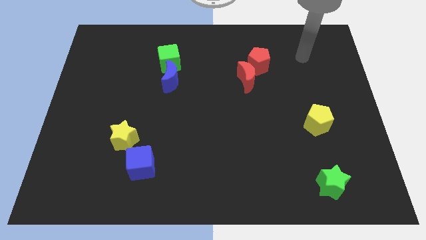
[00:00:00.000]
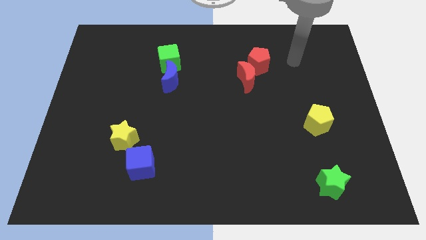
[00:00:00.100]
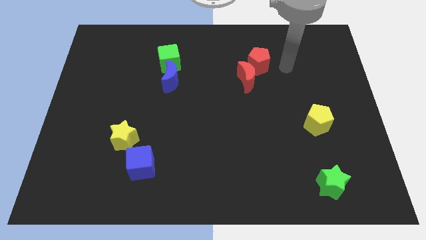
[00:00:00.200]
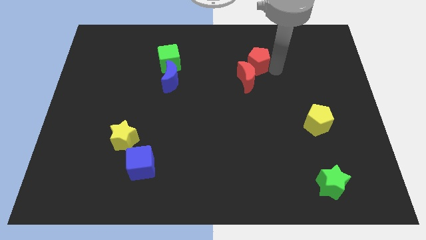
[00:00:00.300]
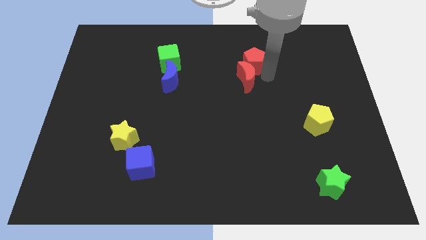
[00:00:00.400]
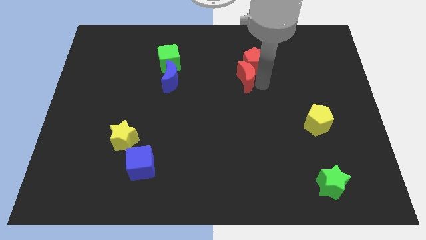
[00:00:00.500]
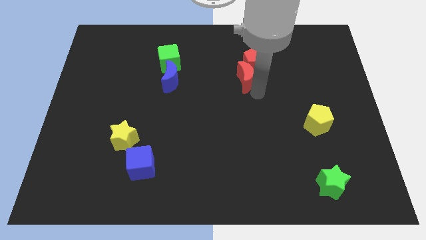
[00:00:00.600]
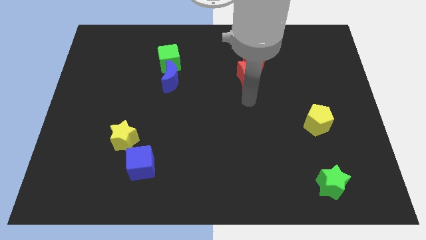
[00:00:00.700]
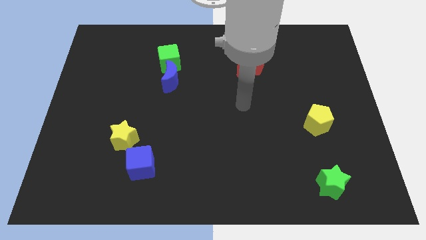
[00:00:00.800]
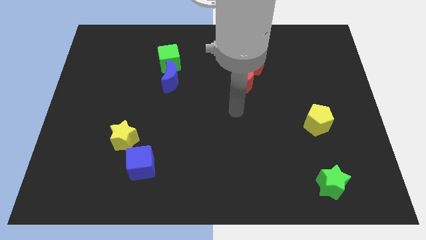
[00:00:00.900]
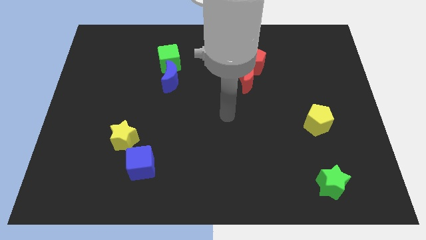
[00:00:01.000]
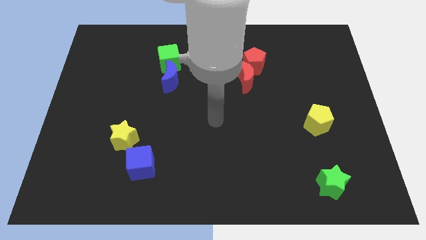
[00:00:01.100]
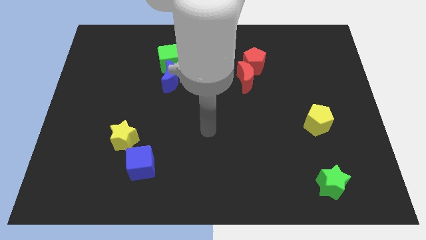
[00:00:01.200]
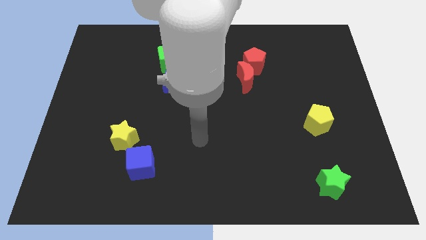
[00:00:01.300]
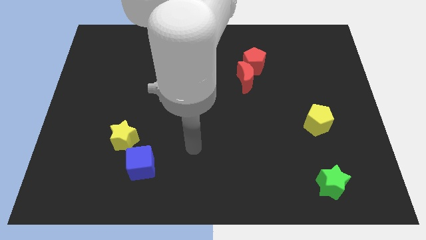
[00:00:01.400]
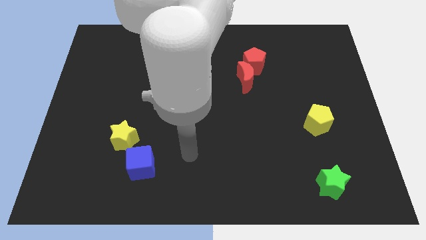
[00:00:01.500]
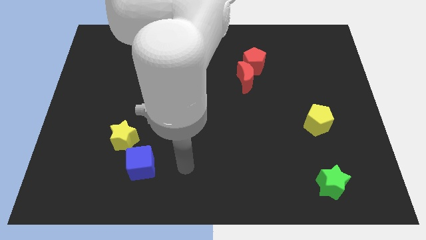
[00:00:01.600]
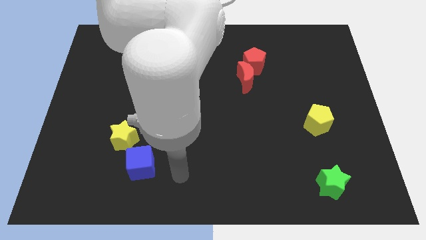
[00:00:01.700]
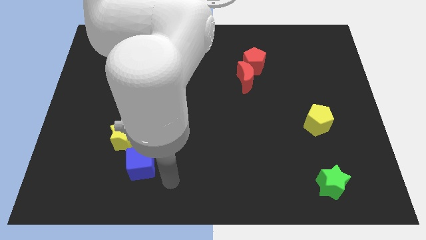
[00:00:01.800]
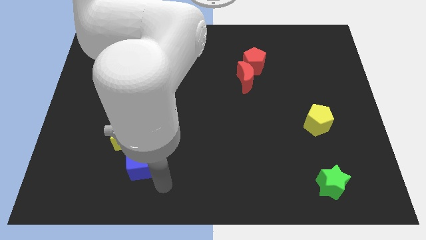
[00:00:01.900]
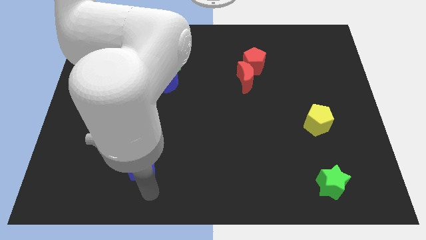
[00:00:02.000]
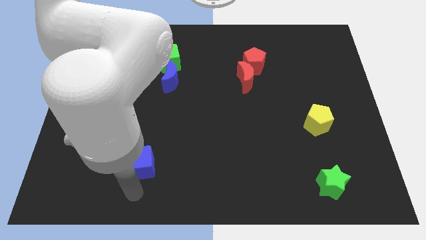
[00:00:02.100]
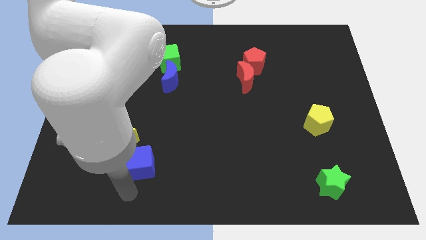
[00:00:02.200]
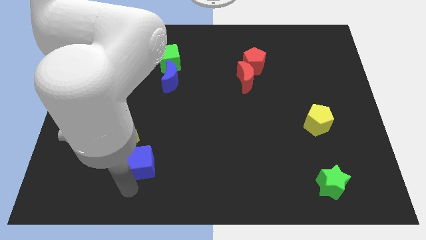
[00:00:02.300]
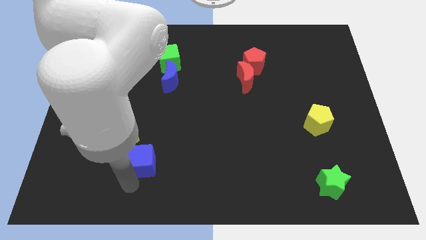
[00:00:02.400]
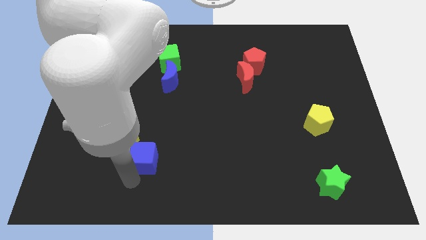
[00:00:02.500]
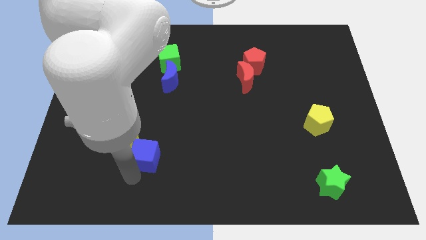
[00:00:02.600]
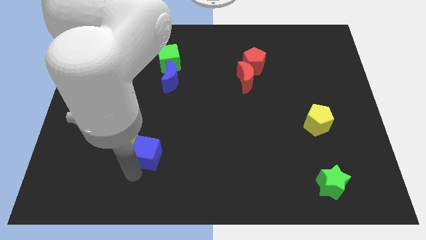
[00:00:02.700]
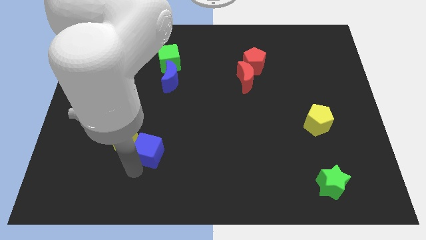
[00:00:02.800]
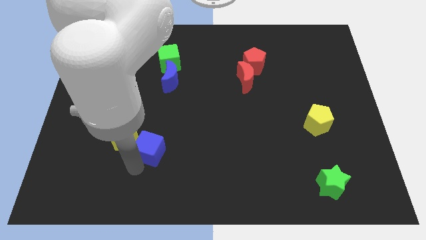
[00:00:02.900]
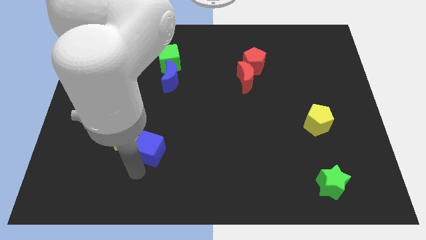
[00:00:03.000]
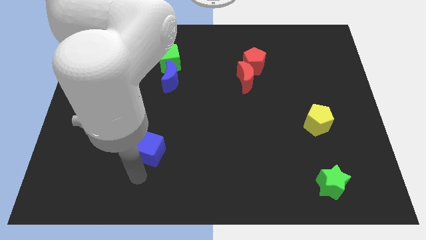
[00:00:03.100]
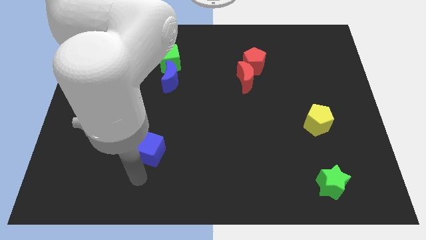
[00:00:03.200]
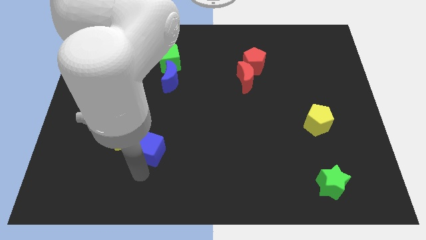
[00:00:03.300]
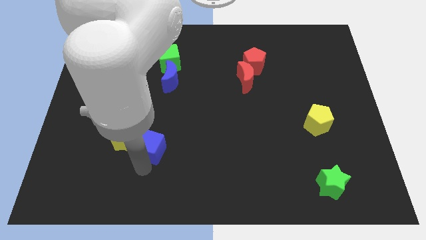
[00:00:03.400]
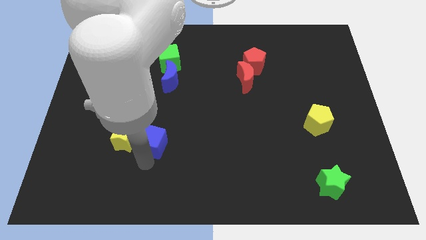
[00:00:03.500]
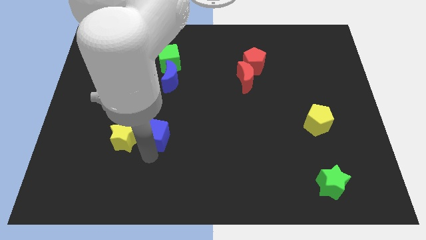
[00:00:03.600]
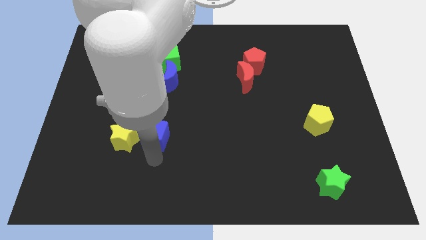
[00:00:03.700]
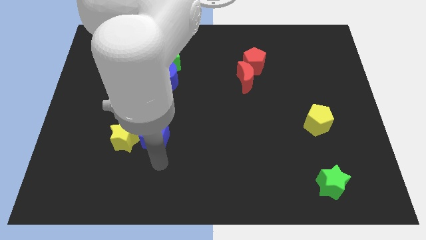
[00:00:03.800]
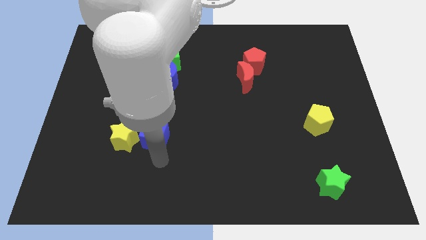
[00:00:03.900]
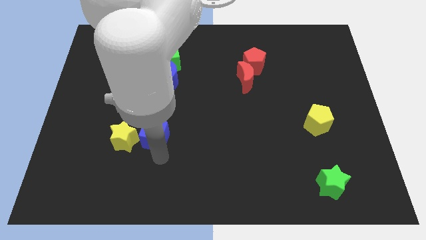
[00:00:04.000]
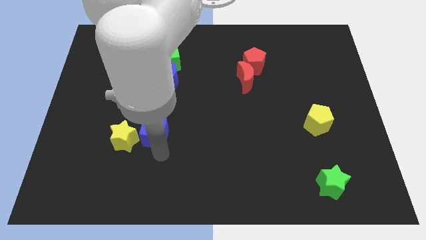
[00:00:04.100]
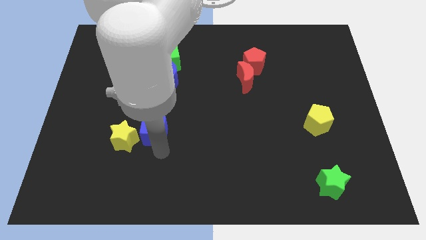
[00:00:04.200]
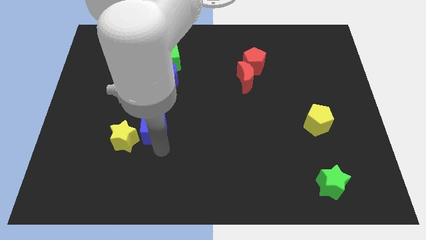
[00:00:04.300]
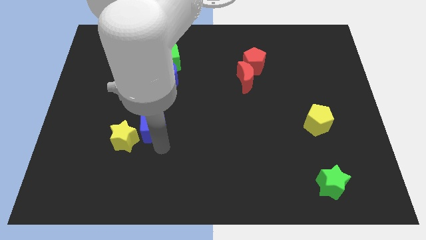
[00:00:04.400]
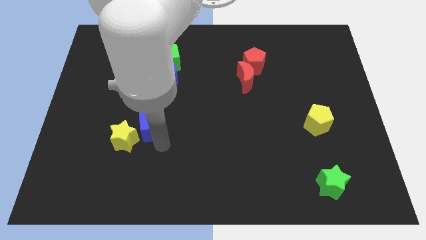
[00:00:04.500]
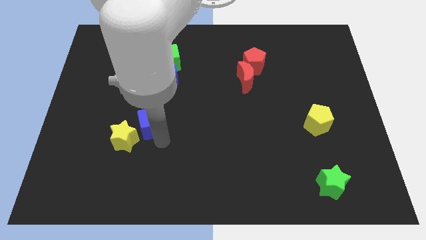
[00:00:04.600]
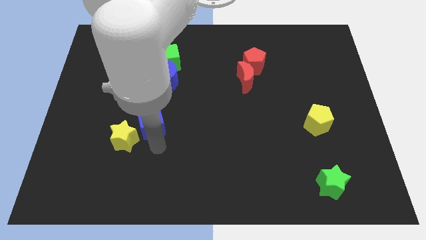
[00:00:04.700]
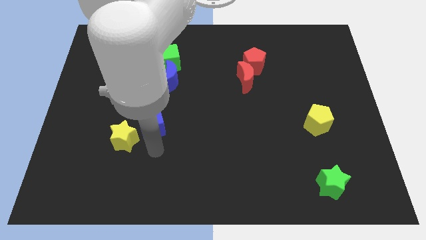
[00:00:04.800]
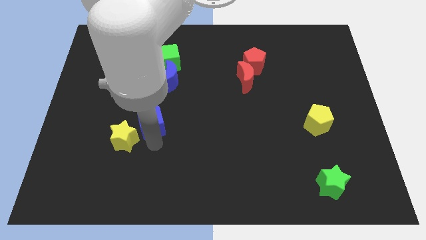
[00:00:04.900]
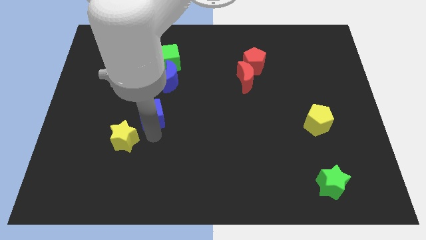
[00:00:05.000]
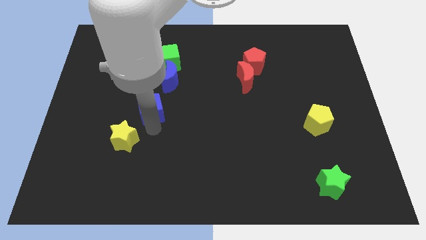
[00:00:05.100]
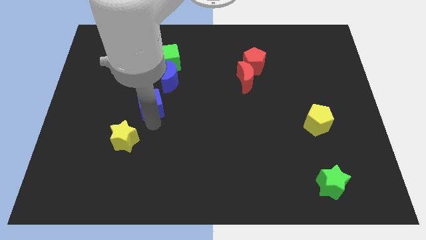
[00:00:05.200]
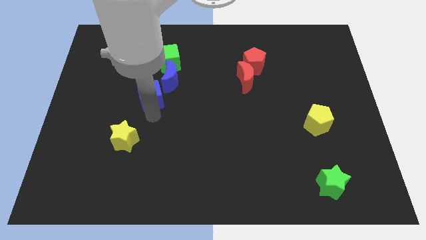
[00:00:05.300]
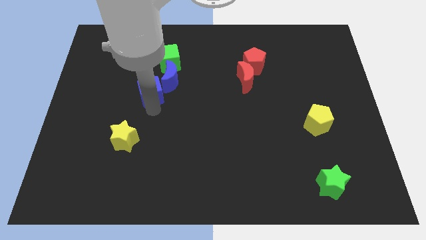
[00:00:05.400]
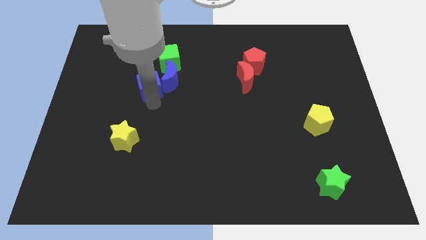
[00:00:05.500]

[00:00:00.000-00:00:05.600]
push the blue cube up

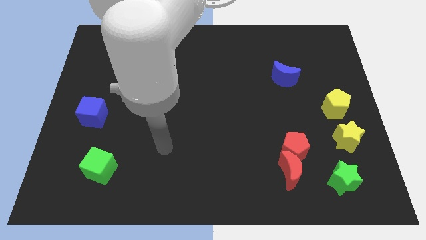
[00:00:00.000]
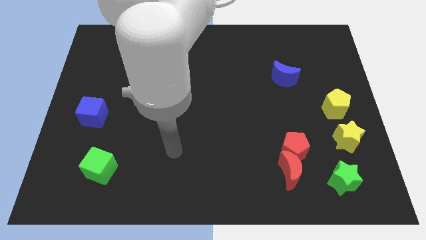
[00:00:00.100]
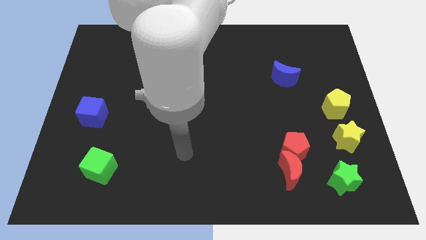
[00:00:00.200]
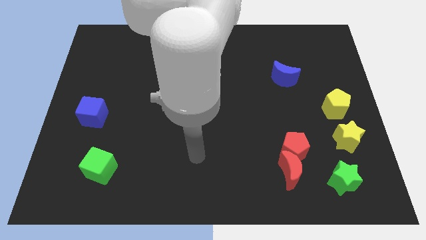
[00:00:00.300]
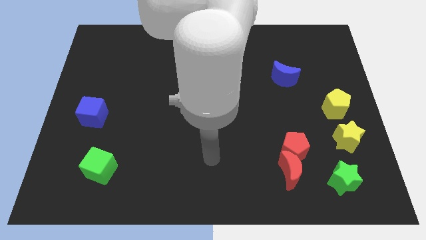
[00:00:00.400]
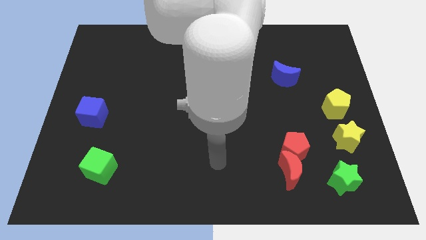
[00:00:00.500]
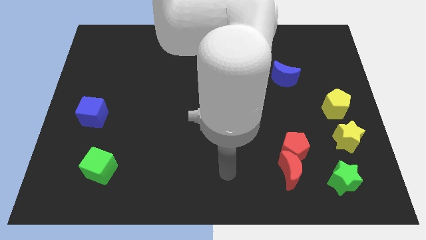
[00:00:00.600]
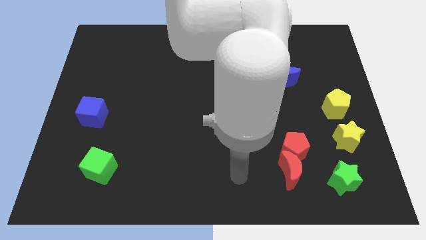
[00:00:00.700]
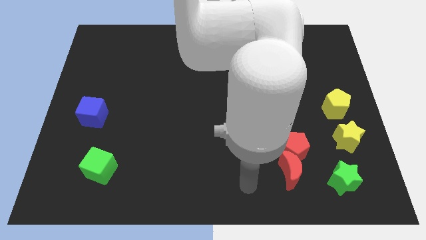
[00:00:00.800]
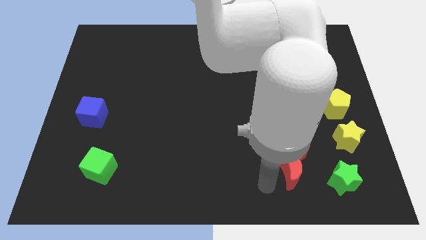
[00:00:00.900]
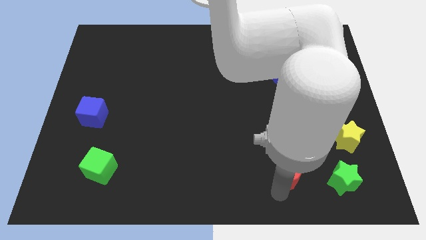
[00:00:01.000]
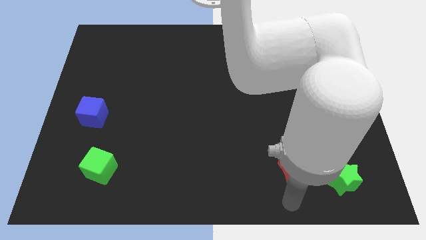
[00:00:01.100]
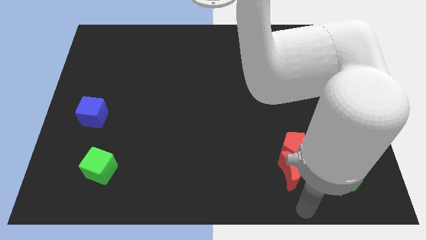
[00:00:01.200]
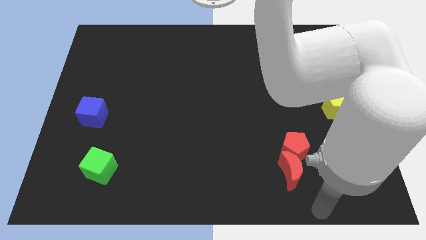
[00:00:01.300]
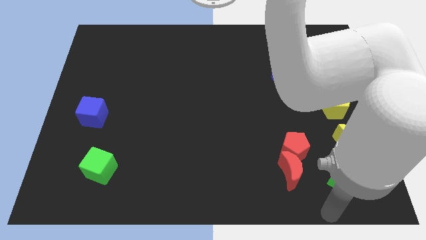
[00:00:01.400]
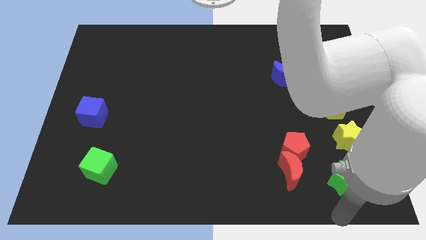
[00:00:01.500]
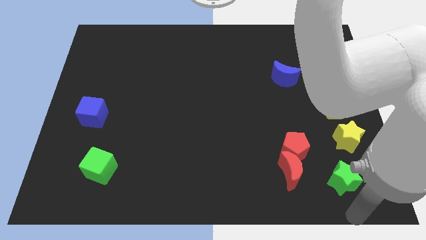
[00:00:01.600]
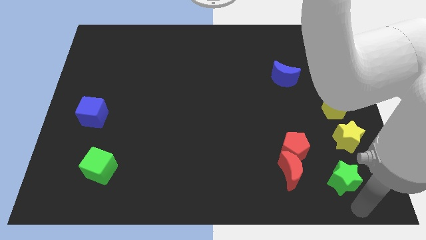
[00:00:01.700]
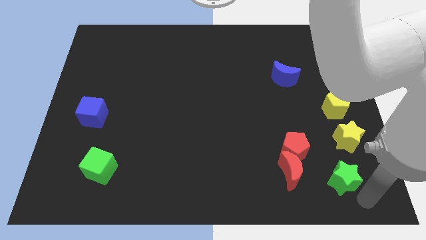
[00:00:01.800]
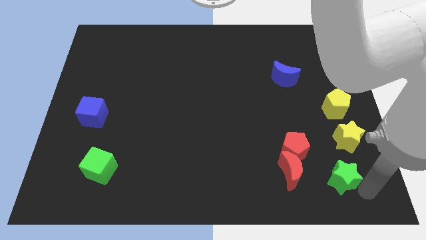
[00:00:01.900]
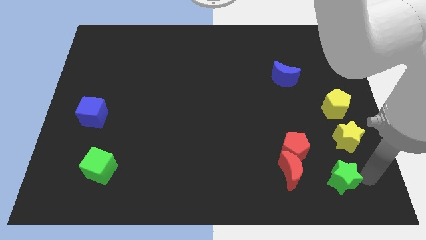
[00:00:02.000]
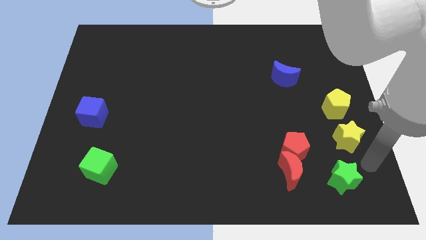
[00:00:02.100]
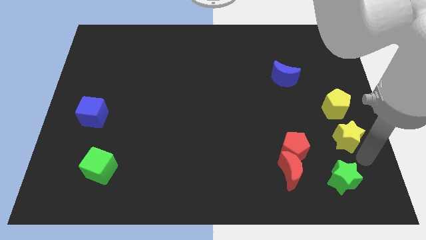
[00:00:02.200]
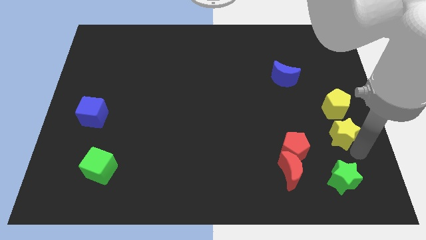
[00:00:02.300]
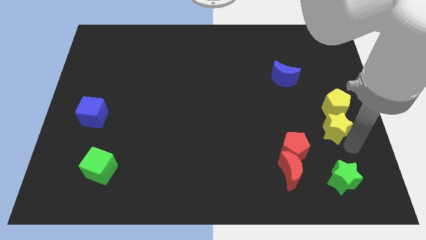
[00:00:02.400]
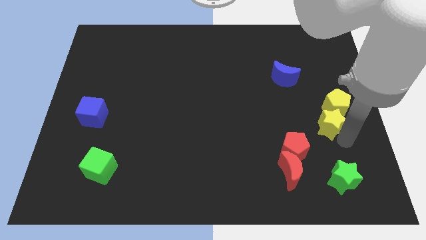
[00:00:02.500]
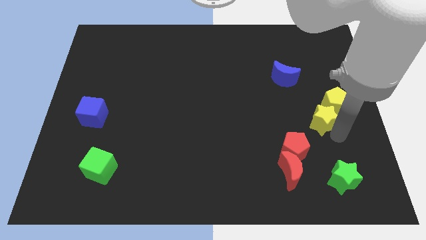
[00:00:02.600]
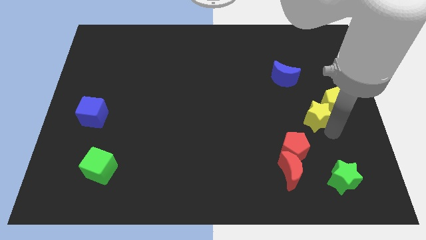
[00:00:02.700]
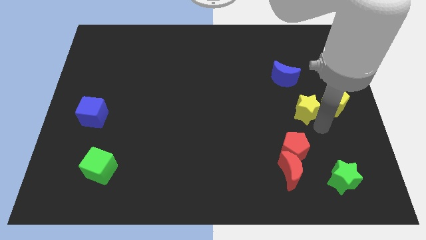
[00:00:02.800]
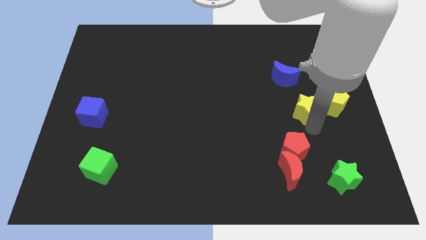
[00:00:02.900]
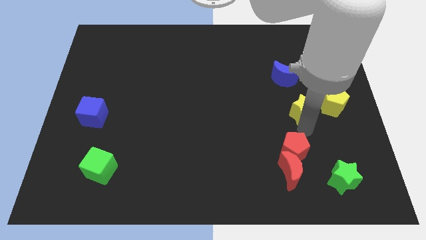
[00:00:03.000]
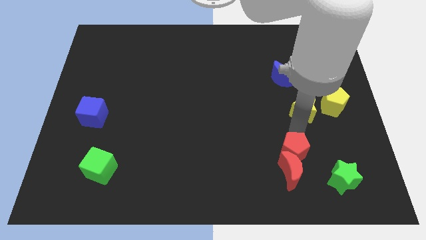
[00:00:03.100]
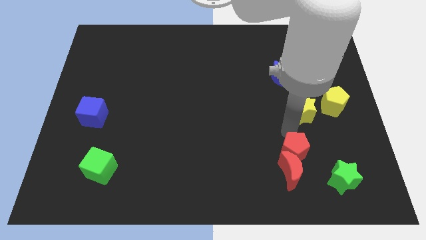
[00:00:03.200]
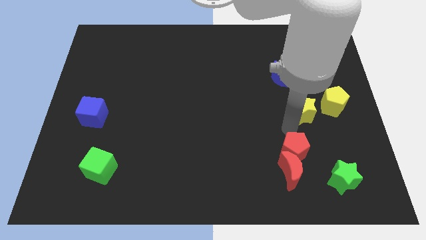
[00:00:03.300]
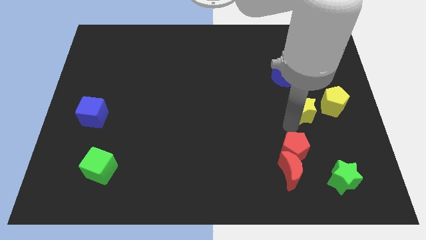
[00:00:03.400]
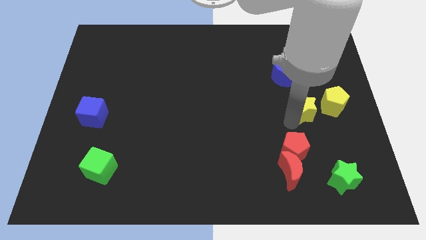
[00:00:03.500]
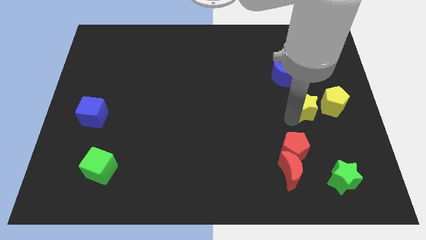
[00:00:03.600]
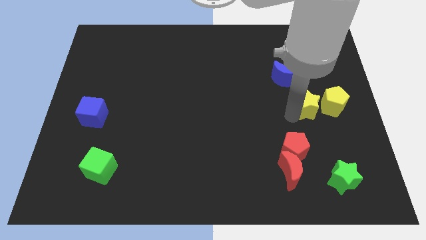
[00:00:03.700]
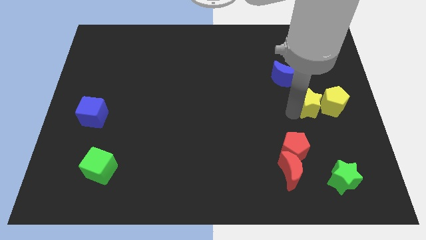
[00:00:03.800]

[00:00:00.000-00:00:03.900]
slightly slide the yellow star upwards
